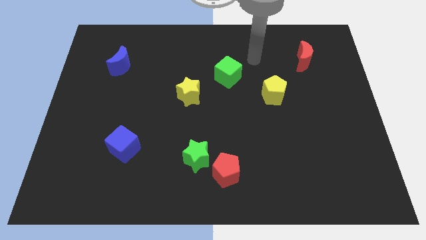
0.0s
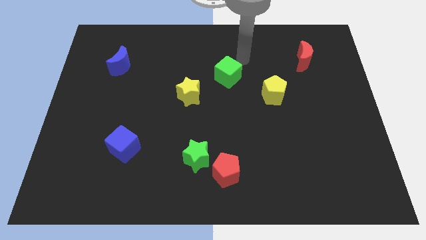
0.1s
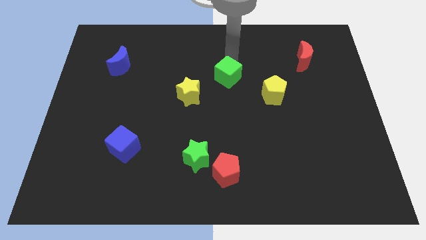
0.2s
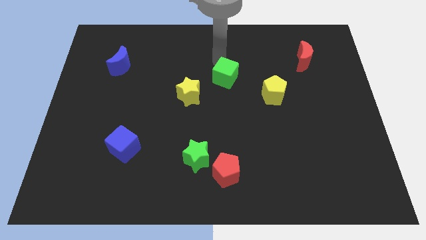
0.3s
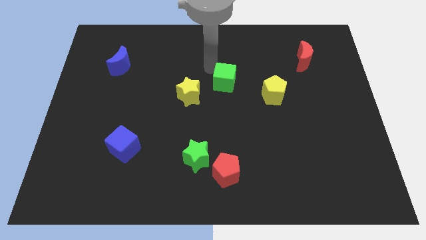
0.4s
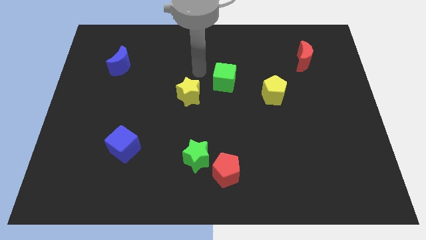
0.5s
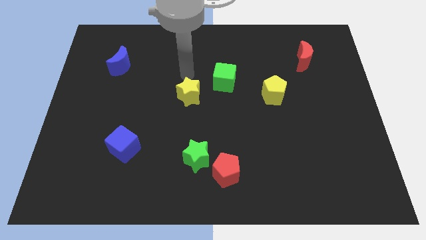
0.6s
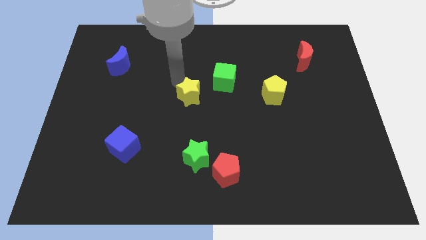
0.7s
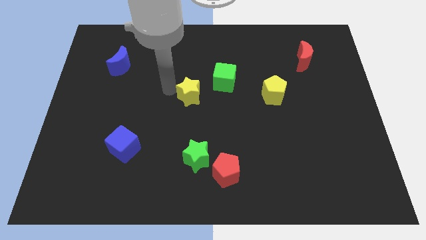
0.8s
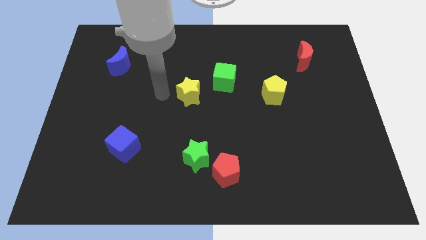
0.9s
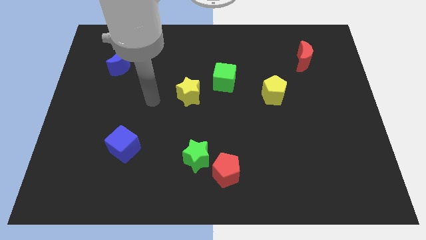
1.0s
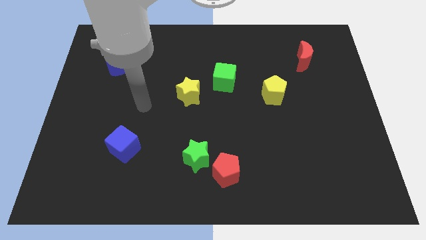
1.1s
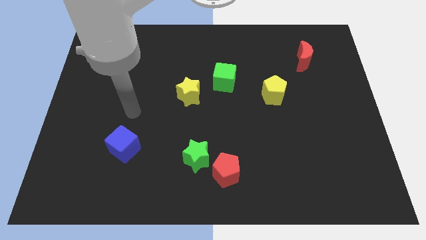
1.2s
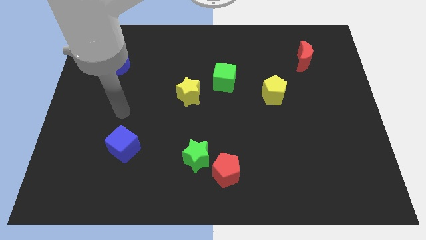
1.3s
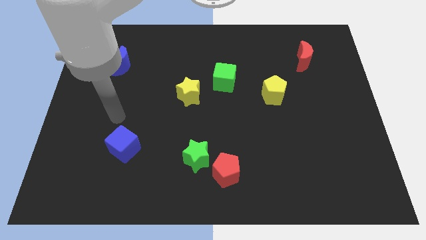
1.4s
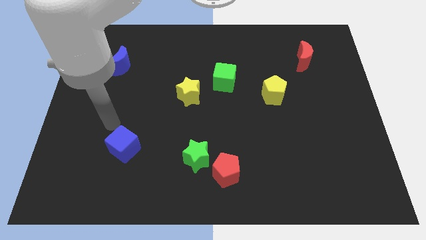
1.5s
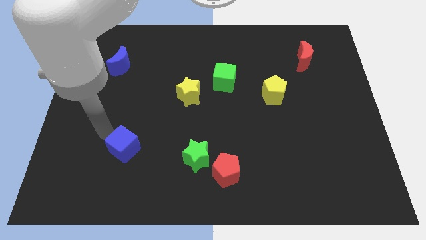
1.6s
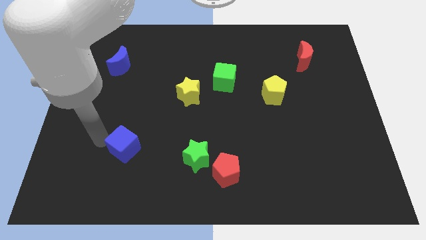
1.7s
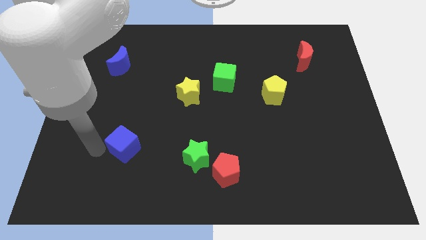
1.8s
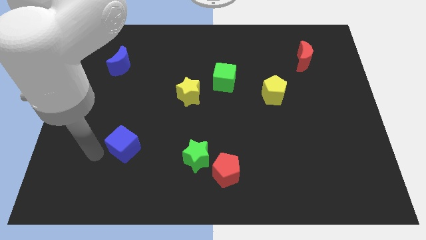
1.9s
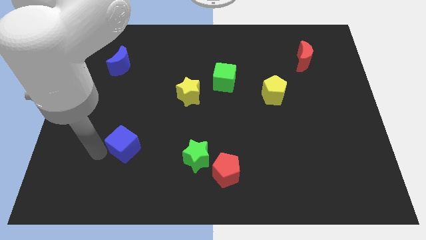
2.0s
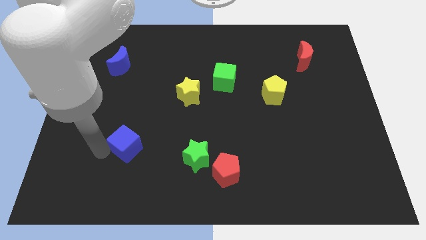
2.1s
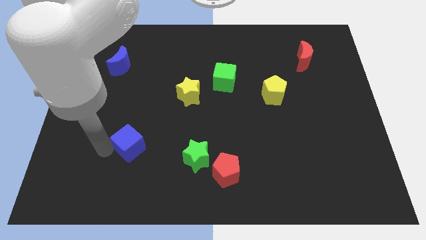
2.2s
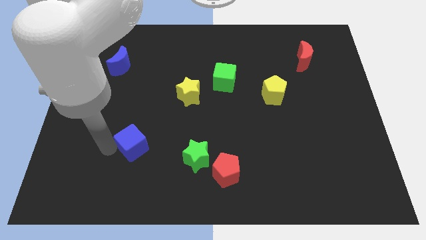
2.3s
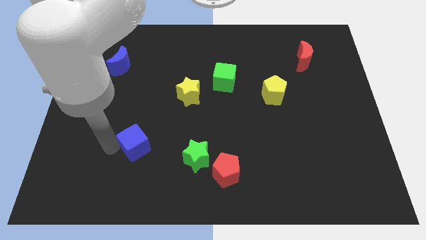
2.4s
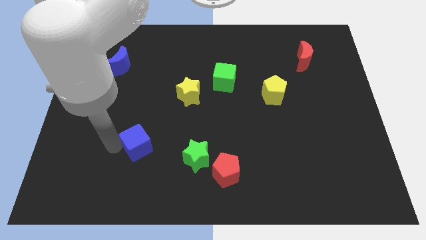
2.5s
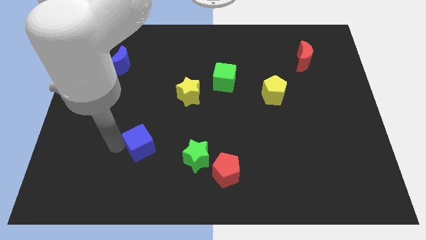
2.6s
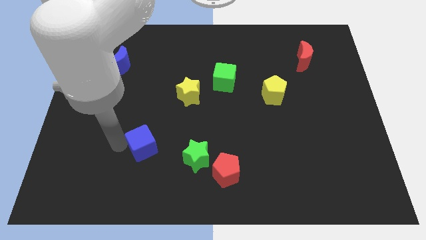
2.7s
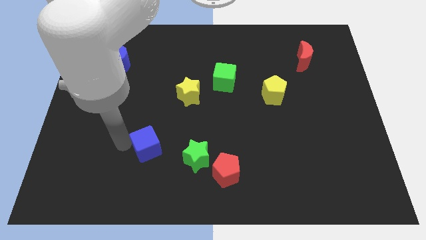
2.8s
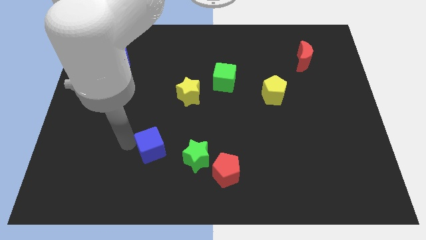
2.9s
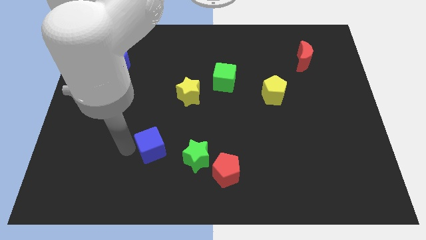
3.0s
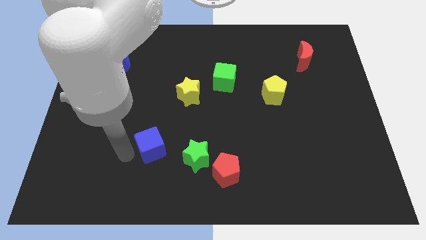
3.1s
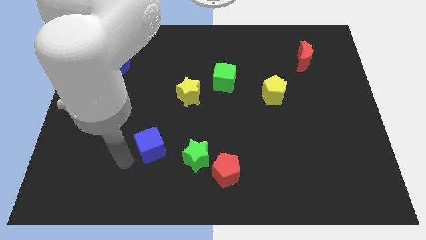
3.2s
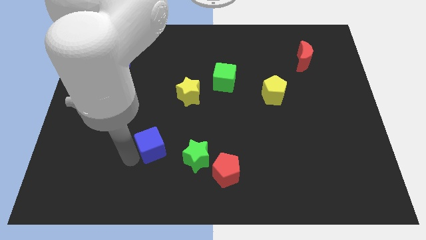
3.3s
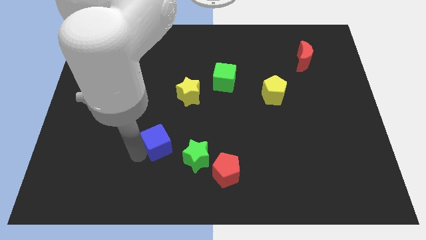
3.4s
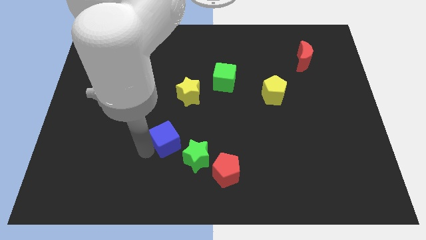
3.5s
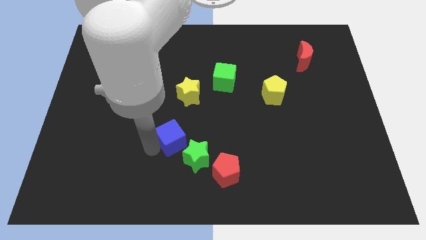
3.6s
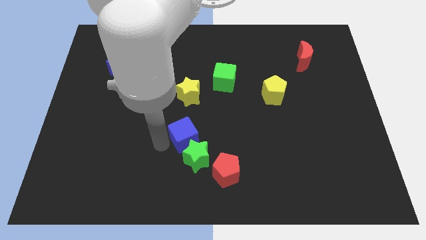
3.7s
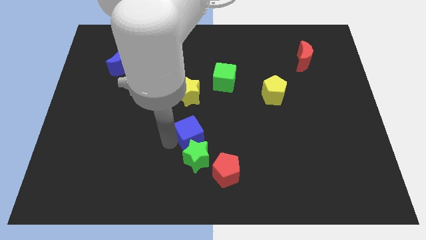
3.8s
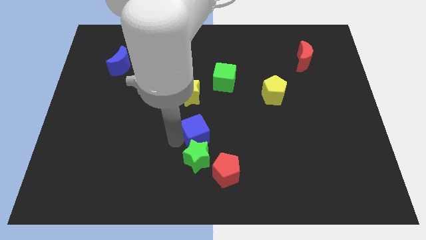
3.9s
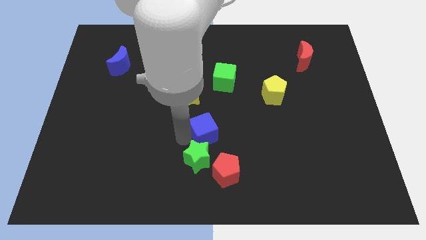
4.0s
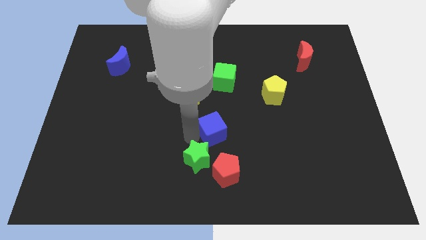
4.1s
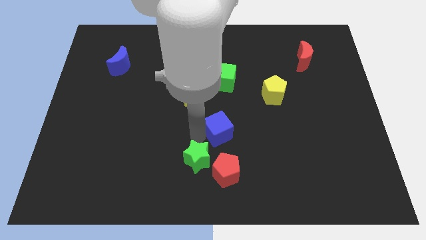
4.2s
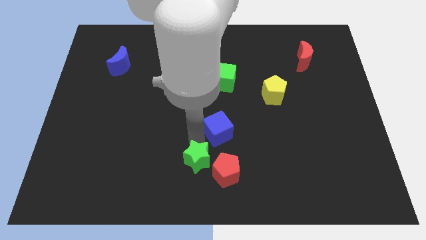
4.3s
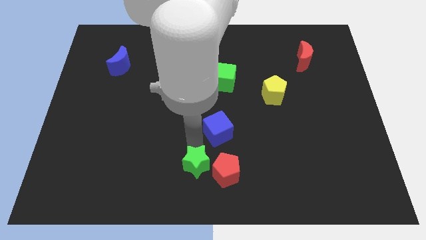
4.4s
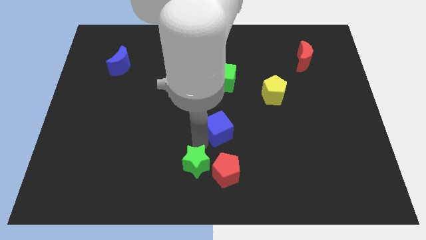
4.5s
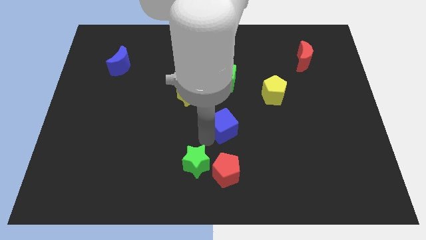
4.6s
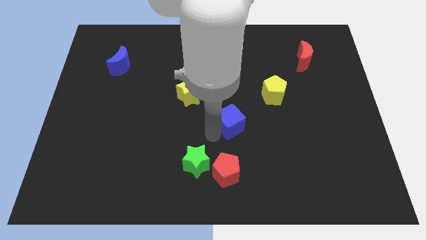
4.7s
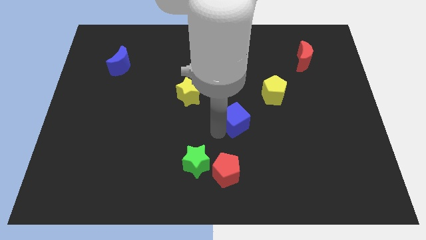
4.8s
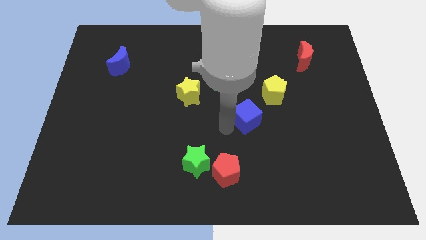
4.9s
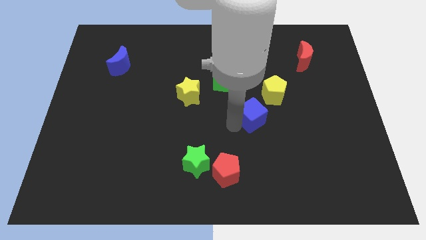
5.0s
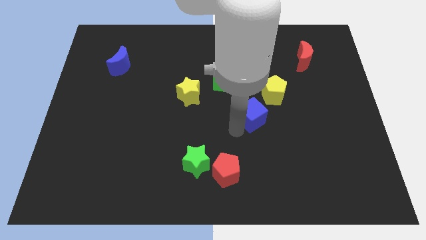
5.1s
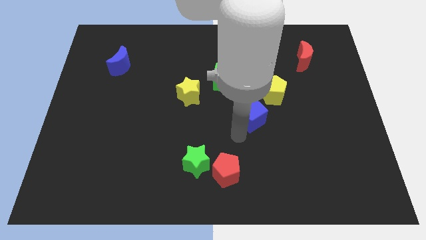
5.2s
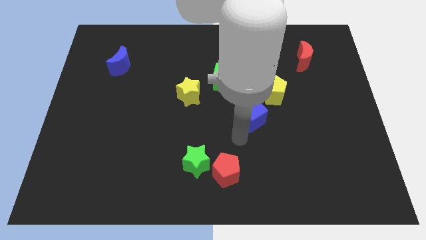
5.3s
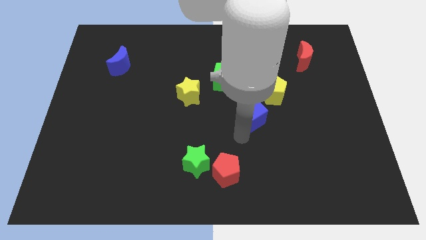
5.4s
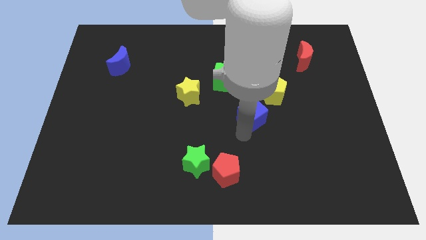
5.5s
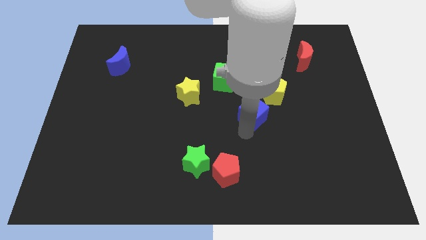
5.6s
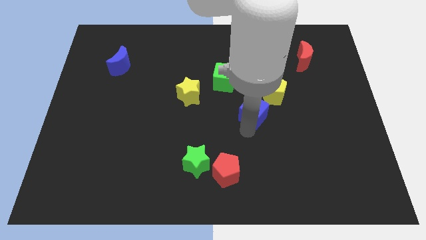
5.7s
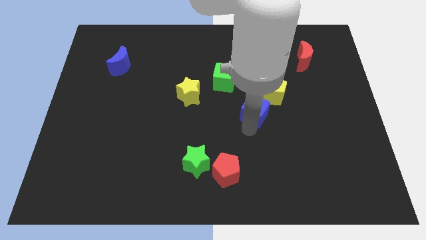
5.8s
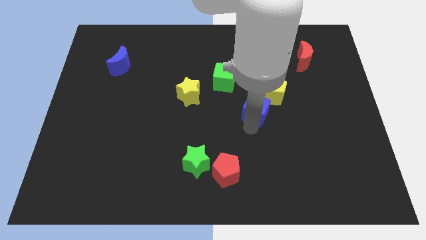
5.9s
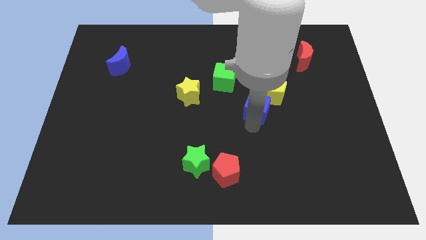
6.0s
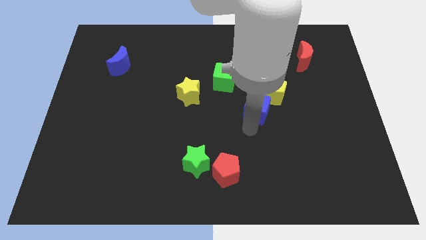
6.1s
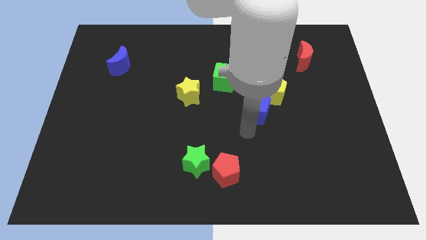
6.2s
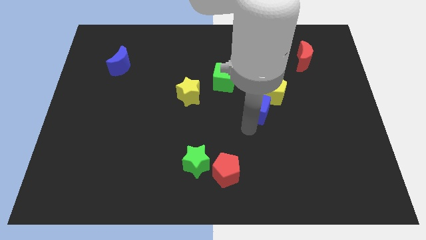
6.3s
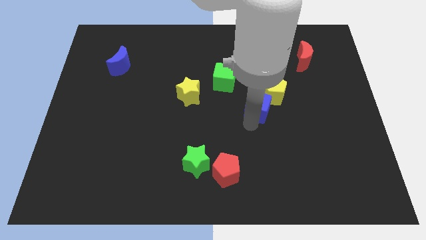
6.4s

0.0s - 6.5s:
push the blue cube to the yellow pentagon

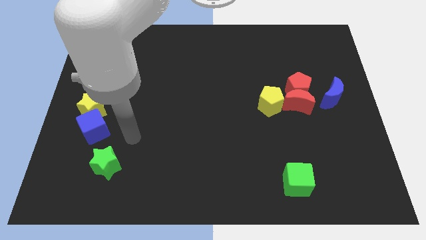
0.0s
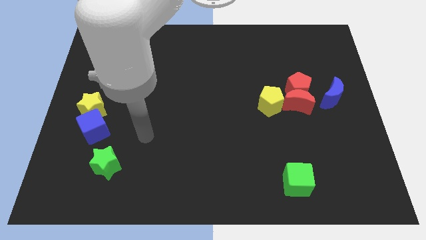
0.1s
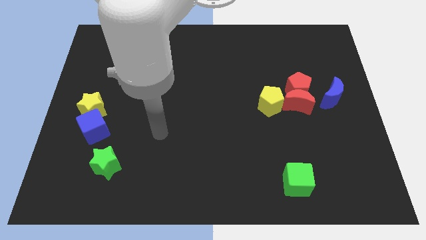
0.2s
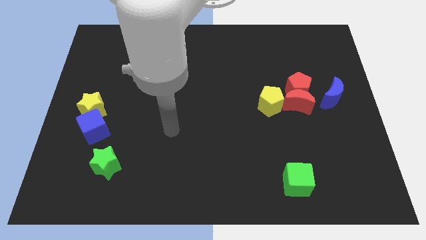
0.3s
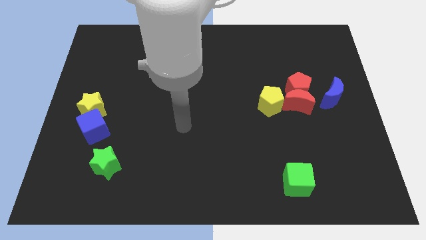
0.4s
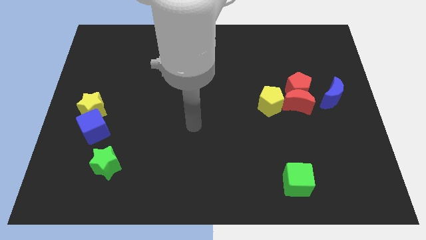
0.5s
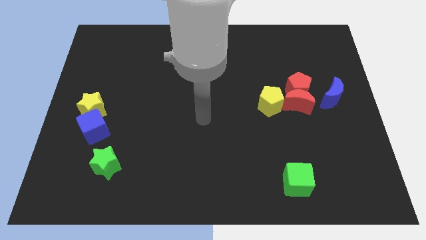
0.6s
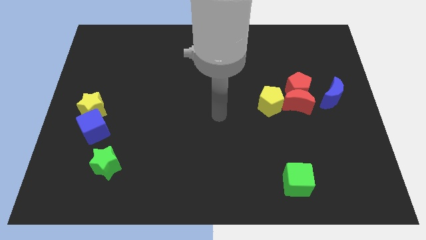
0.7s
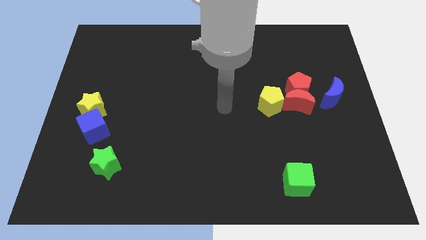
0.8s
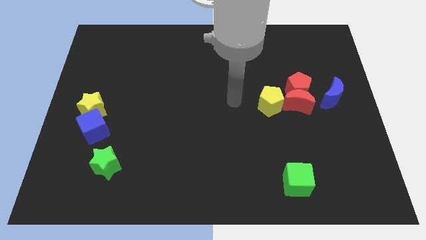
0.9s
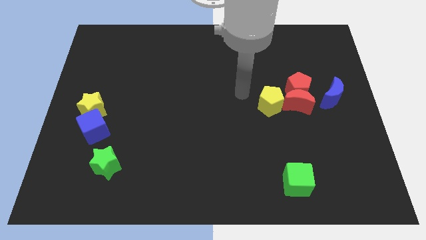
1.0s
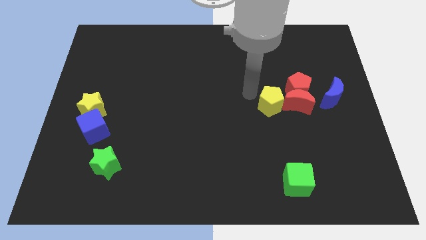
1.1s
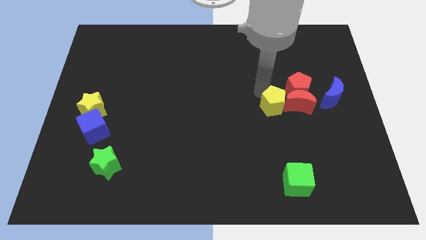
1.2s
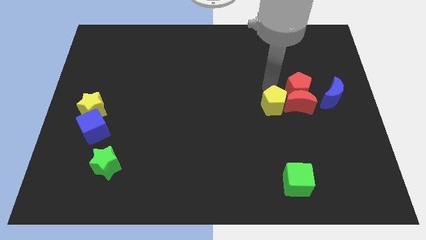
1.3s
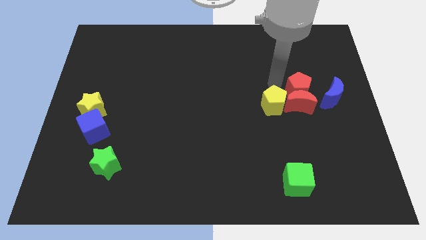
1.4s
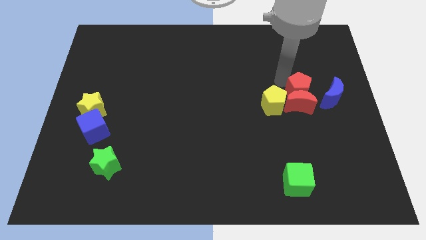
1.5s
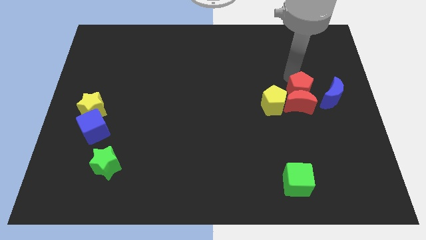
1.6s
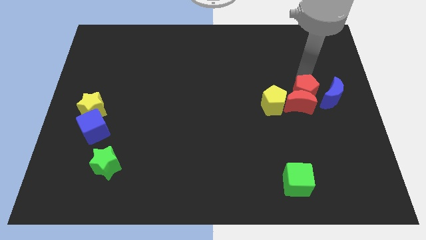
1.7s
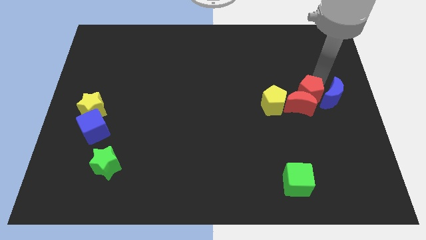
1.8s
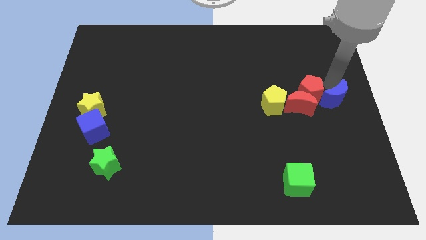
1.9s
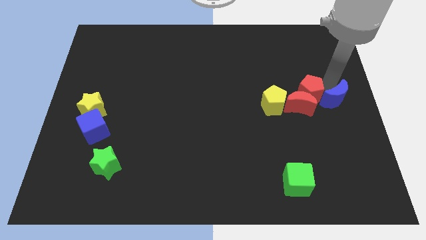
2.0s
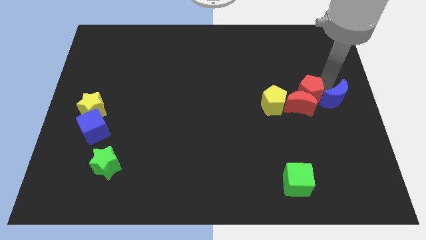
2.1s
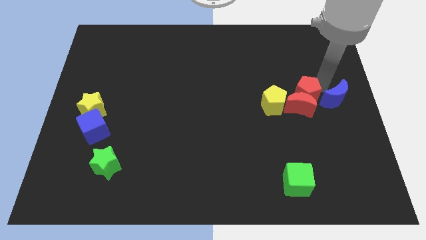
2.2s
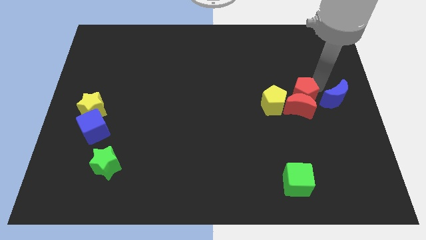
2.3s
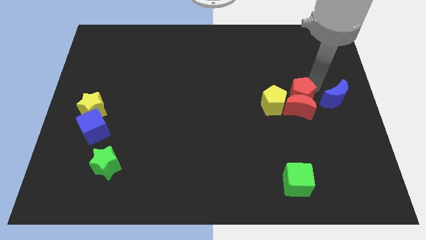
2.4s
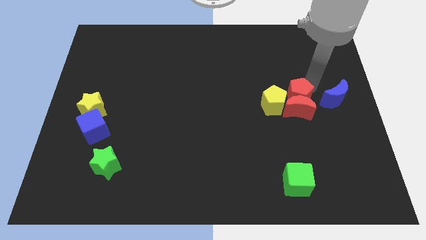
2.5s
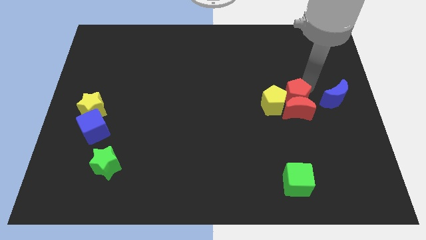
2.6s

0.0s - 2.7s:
put the red pentagon close to the yellow pentagon
